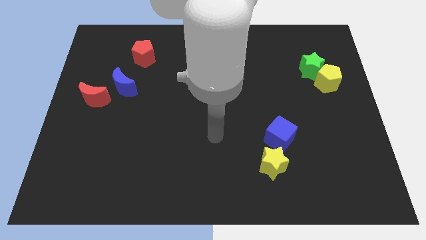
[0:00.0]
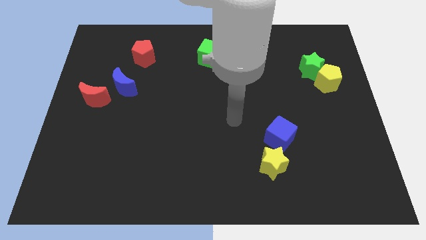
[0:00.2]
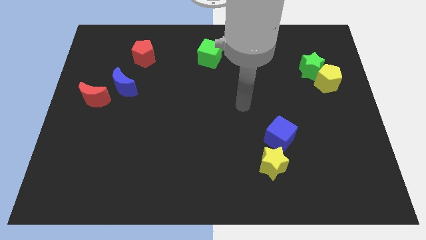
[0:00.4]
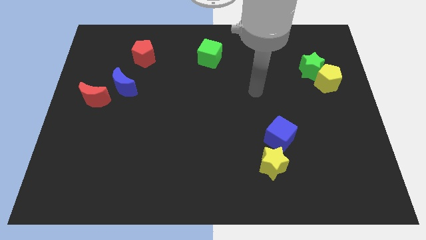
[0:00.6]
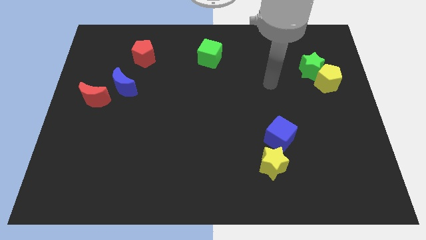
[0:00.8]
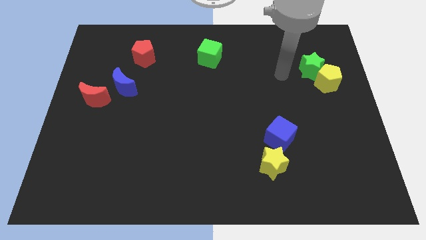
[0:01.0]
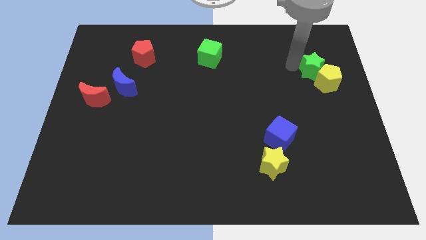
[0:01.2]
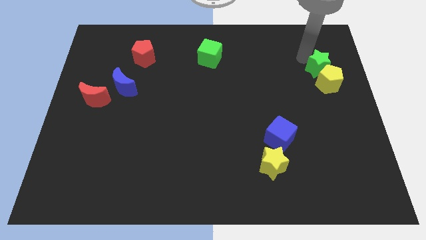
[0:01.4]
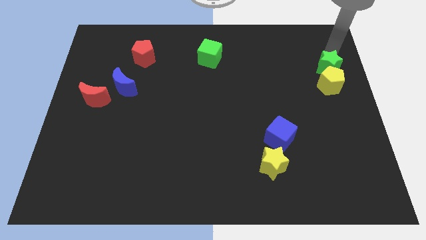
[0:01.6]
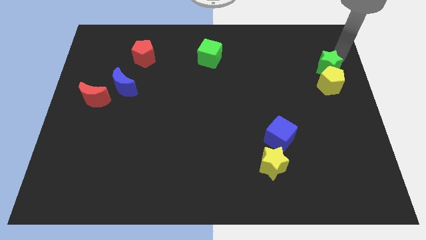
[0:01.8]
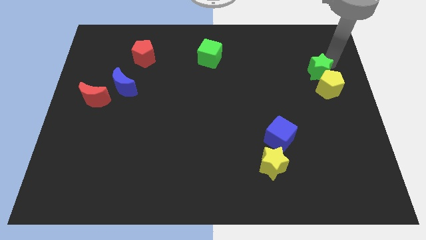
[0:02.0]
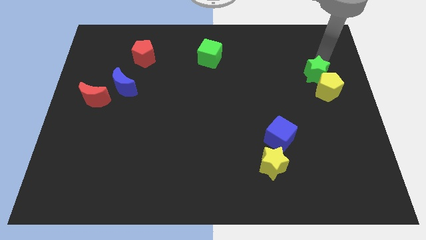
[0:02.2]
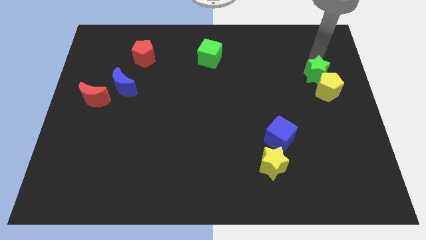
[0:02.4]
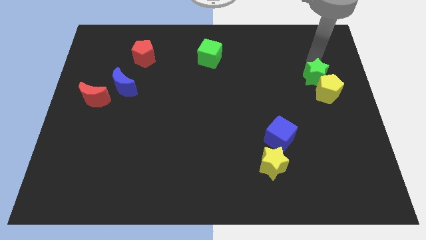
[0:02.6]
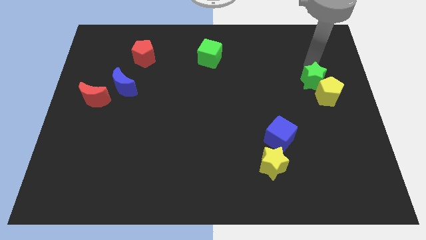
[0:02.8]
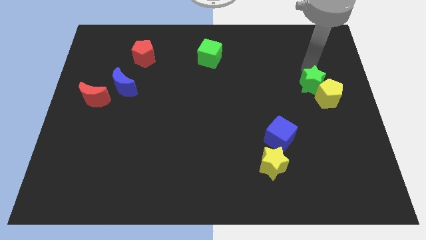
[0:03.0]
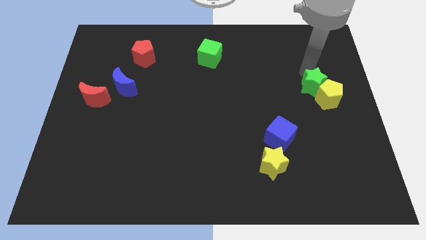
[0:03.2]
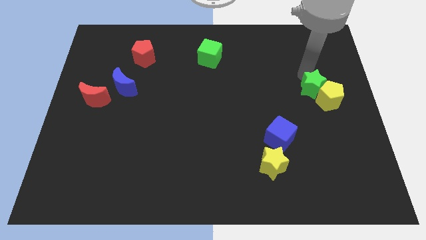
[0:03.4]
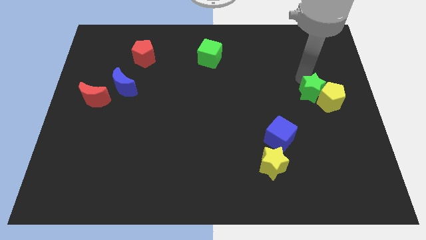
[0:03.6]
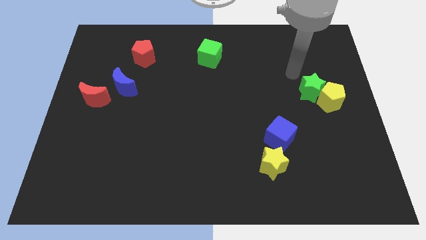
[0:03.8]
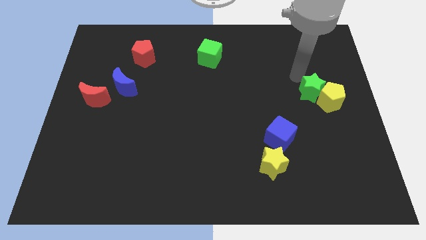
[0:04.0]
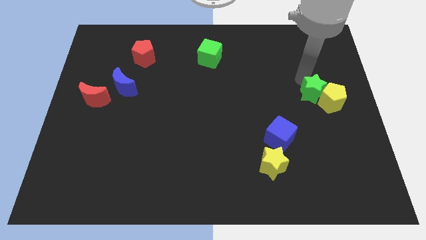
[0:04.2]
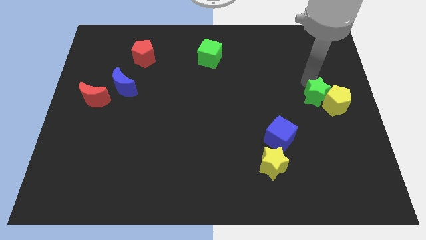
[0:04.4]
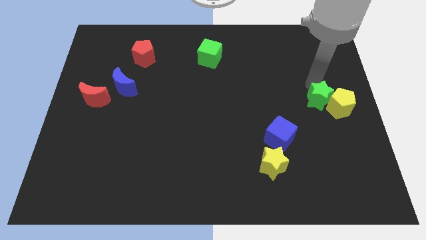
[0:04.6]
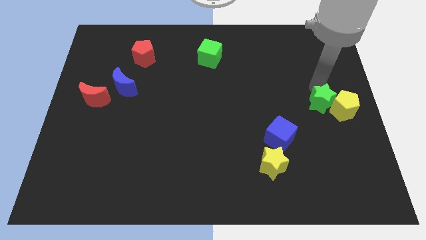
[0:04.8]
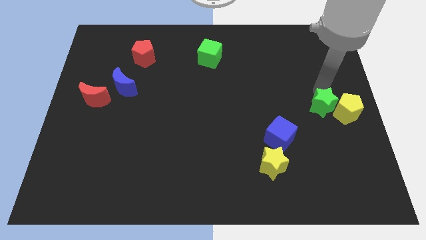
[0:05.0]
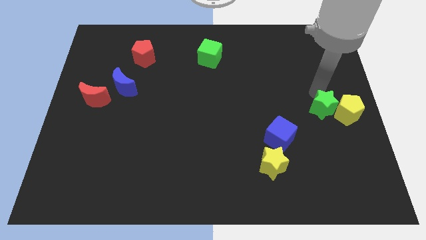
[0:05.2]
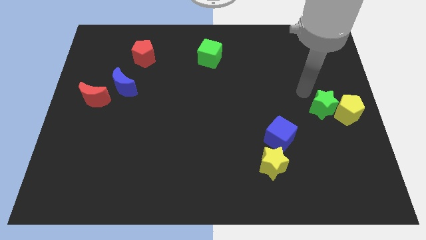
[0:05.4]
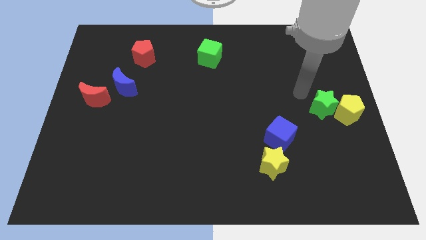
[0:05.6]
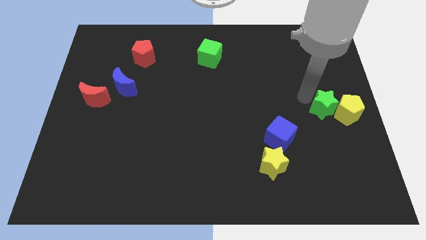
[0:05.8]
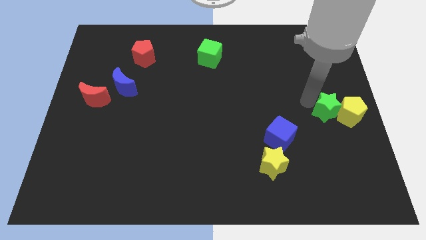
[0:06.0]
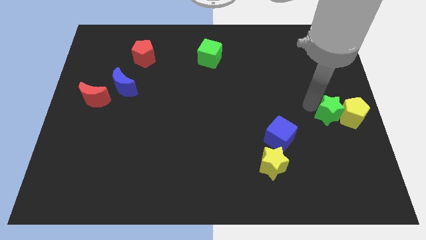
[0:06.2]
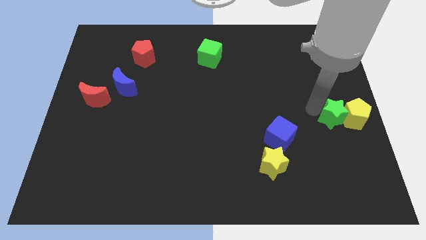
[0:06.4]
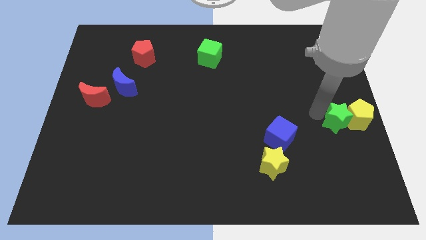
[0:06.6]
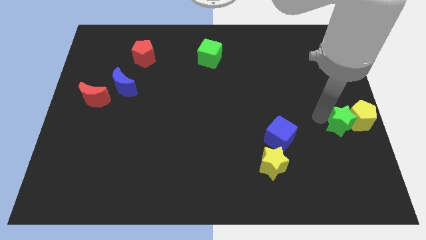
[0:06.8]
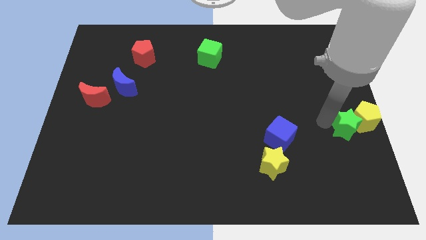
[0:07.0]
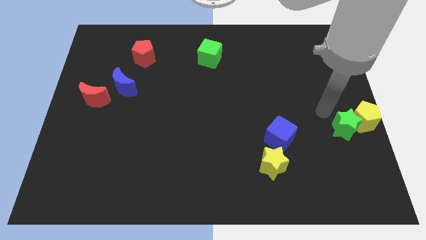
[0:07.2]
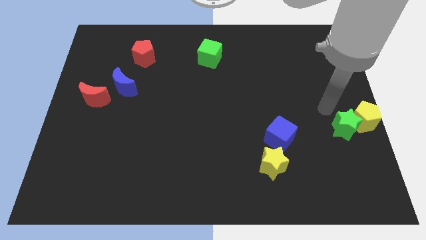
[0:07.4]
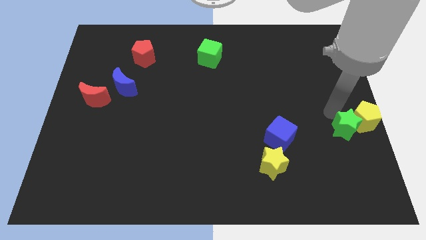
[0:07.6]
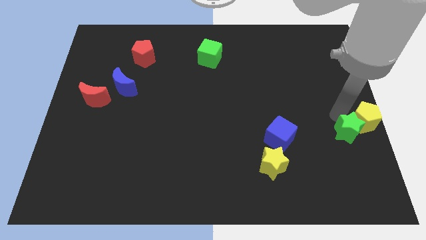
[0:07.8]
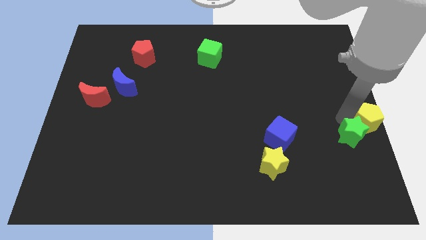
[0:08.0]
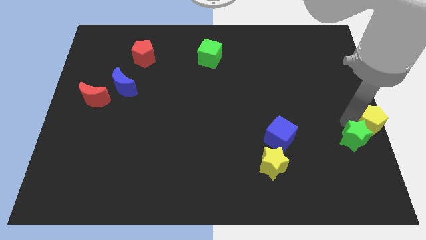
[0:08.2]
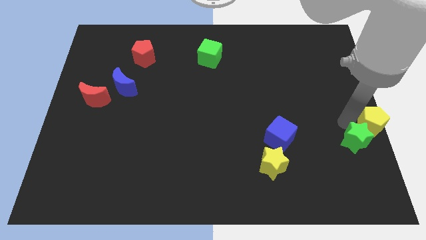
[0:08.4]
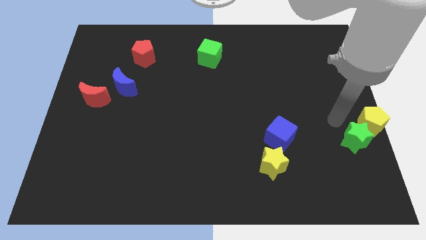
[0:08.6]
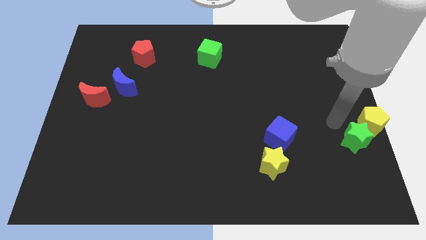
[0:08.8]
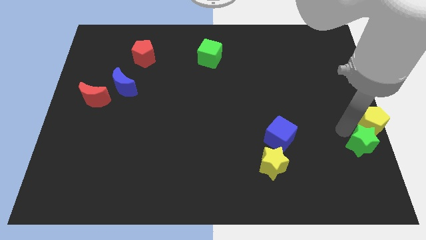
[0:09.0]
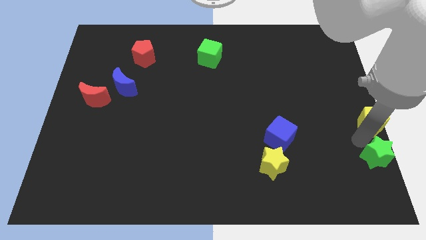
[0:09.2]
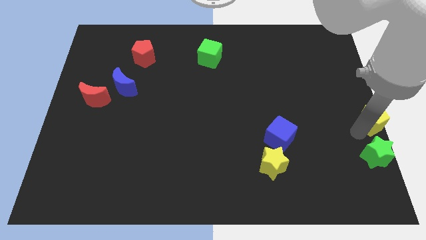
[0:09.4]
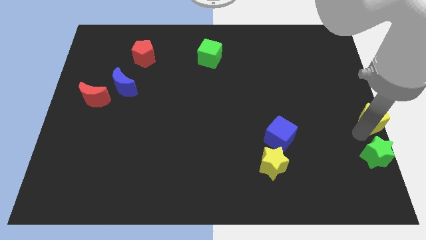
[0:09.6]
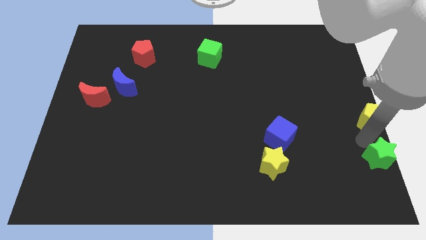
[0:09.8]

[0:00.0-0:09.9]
slide the green star to the bottom right

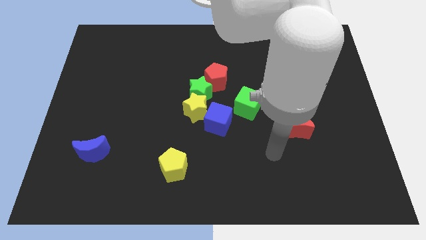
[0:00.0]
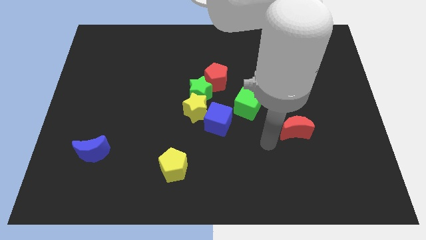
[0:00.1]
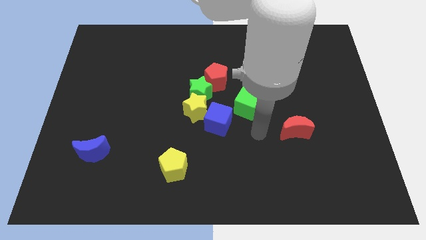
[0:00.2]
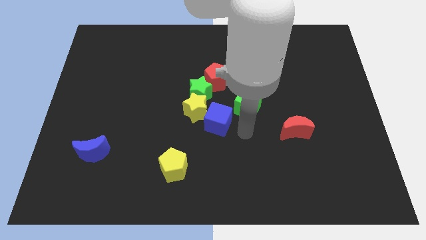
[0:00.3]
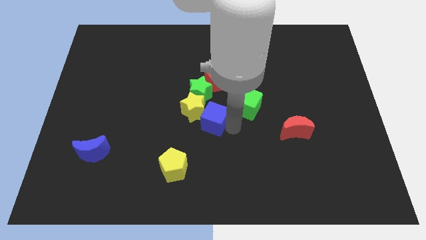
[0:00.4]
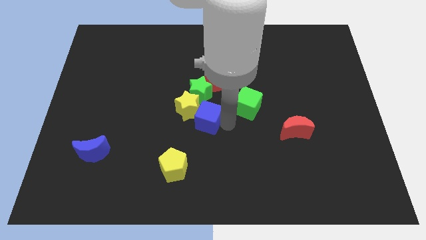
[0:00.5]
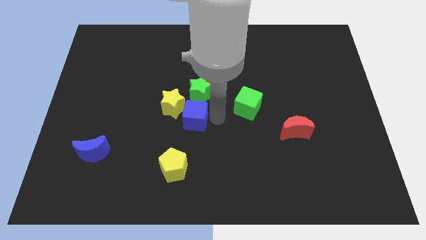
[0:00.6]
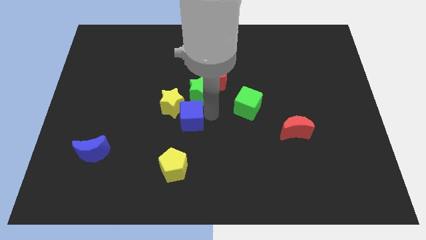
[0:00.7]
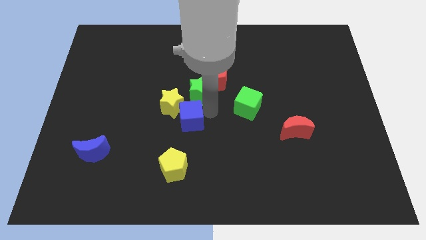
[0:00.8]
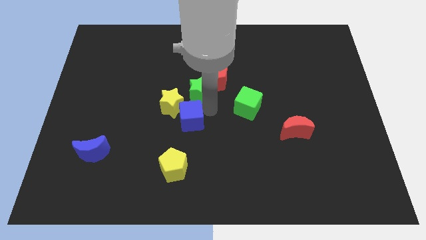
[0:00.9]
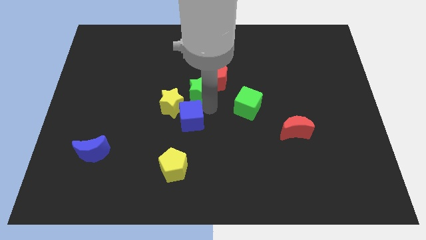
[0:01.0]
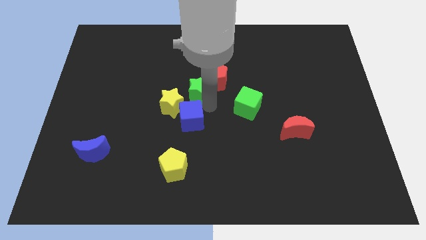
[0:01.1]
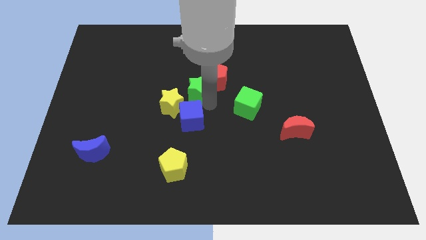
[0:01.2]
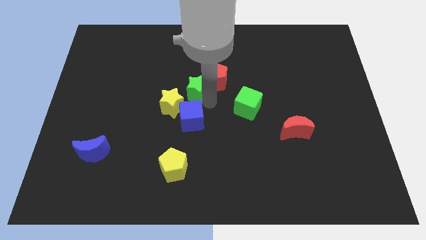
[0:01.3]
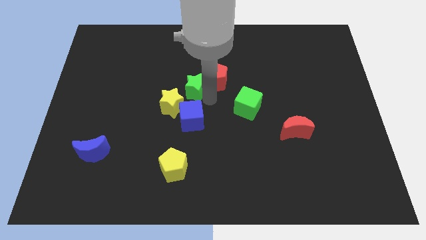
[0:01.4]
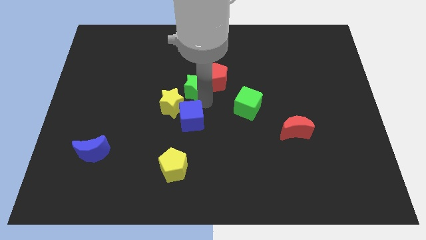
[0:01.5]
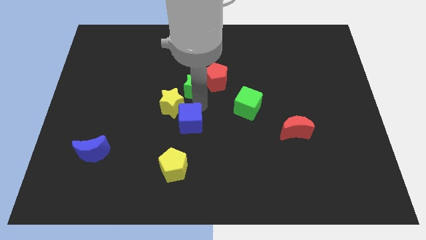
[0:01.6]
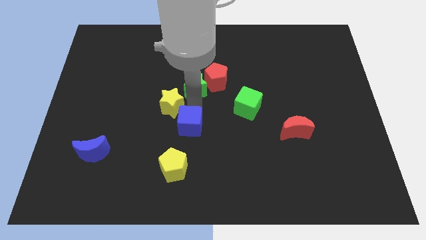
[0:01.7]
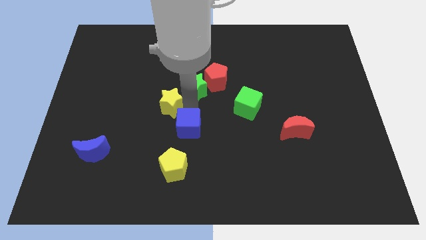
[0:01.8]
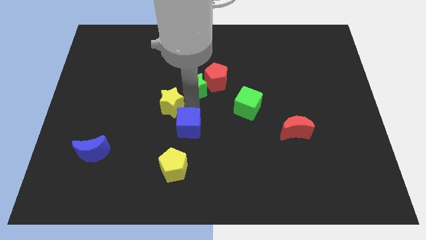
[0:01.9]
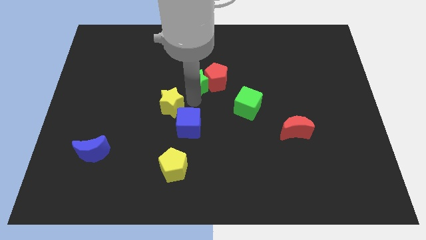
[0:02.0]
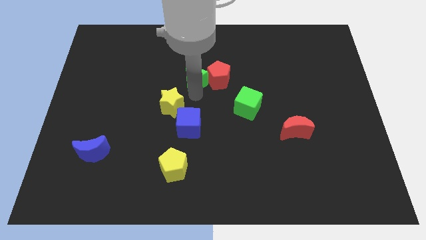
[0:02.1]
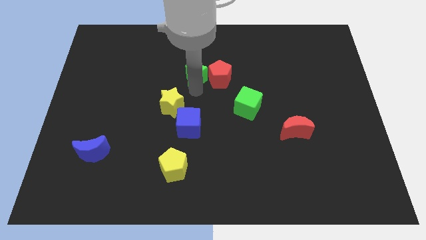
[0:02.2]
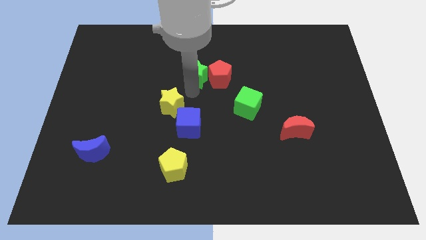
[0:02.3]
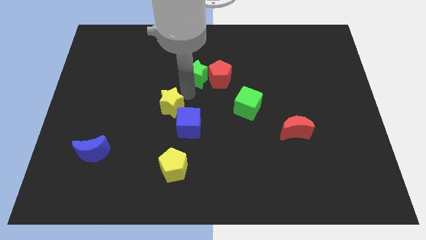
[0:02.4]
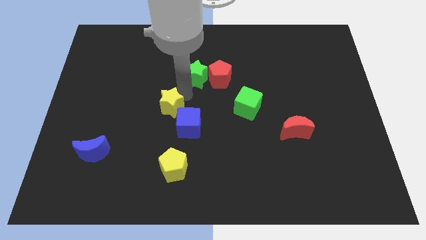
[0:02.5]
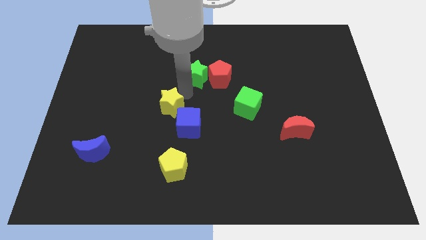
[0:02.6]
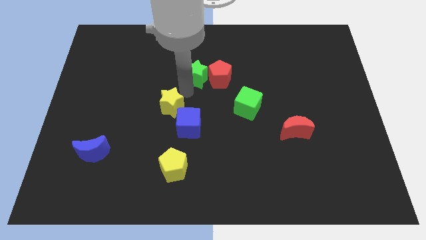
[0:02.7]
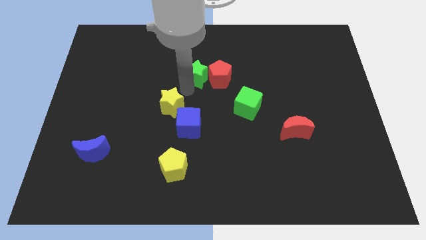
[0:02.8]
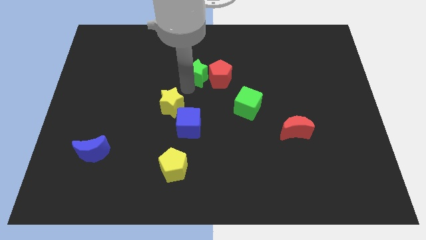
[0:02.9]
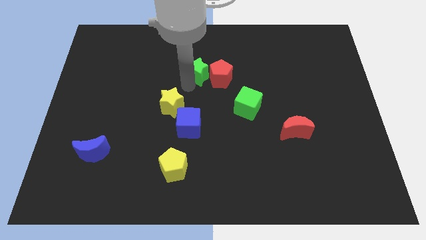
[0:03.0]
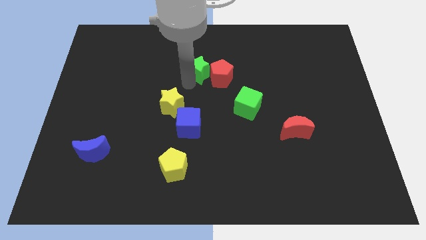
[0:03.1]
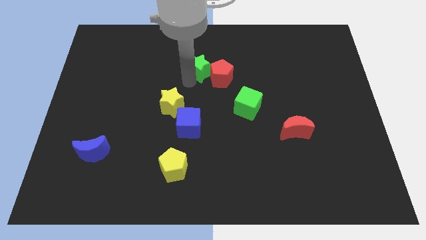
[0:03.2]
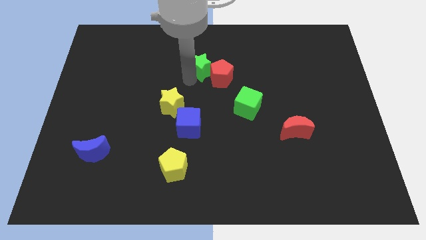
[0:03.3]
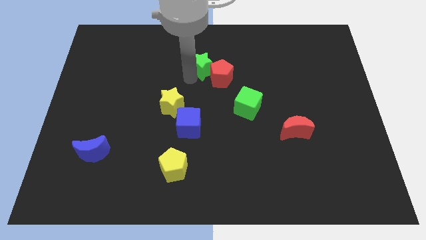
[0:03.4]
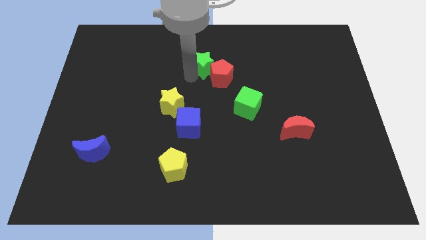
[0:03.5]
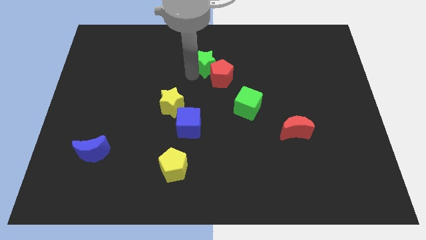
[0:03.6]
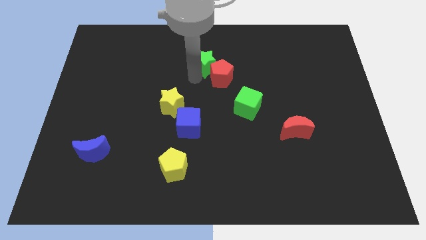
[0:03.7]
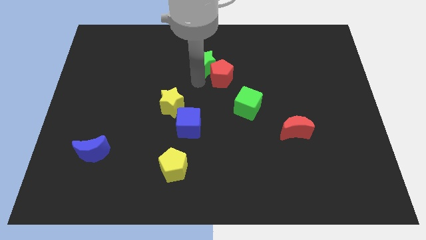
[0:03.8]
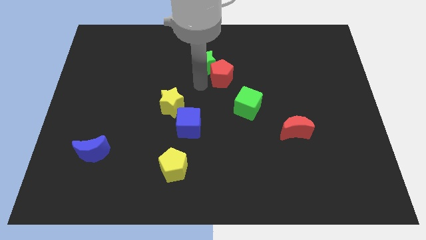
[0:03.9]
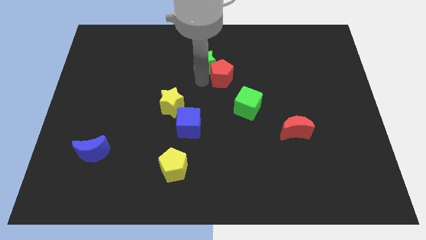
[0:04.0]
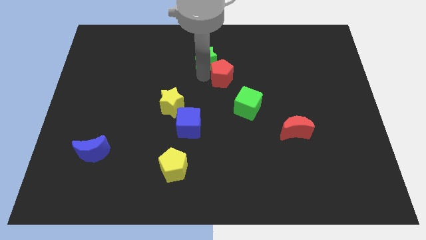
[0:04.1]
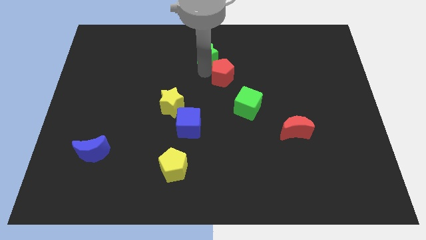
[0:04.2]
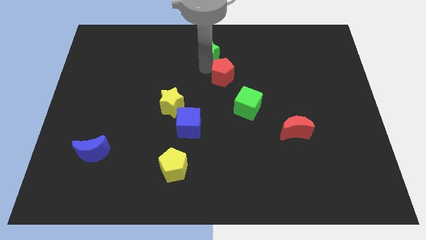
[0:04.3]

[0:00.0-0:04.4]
move the green star to the towards your base
